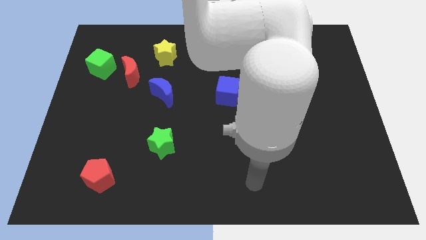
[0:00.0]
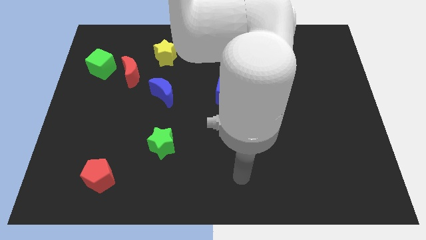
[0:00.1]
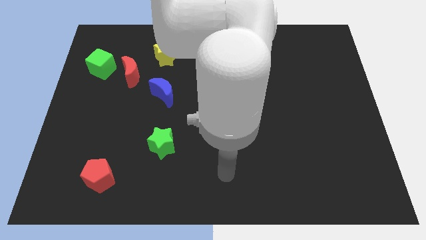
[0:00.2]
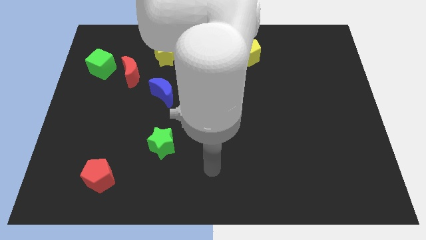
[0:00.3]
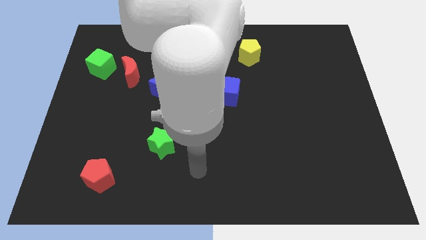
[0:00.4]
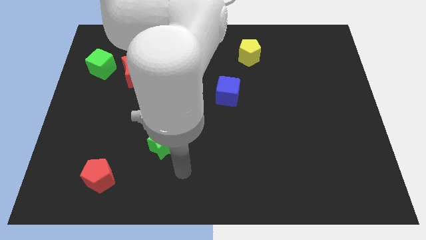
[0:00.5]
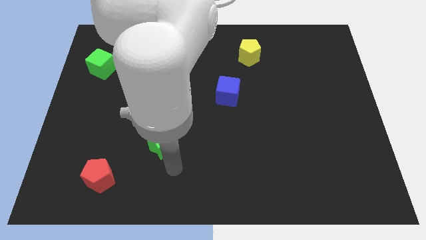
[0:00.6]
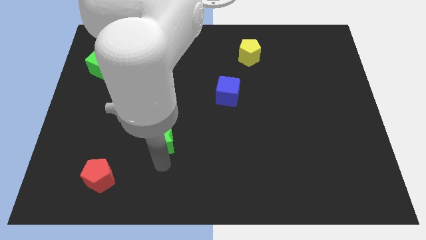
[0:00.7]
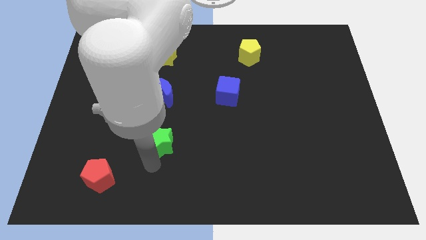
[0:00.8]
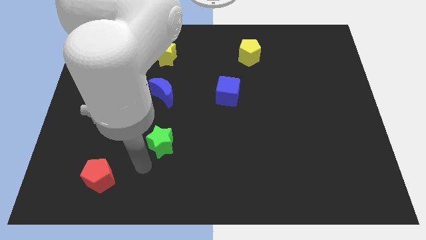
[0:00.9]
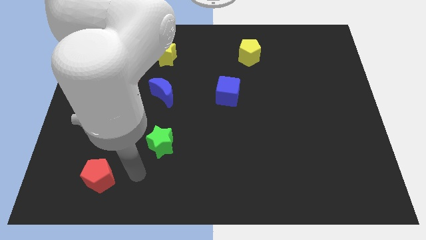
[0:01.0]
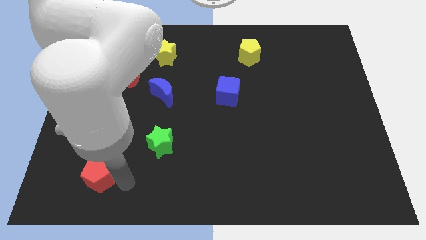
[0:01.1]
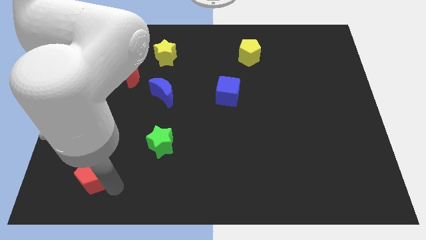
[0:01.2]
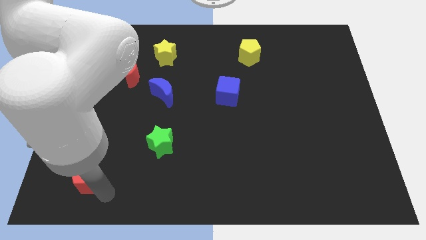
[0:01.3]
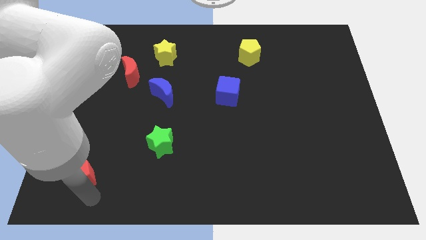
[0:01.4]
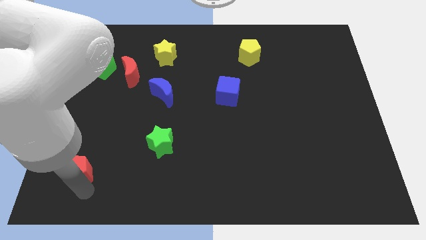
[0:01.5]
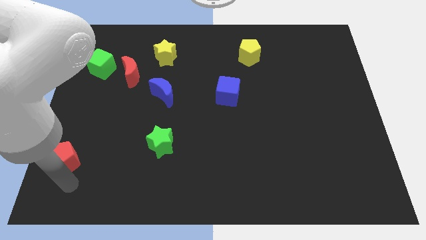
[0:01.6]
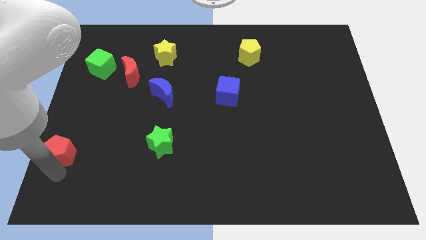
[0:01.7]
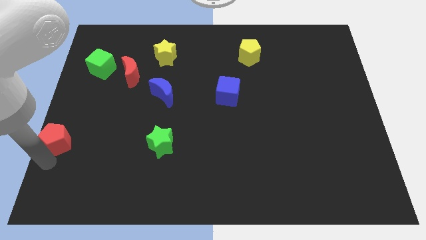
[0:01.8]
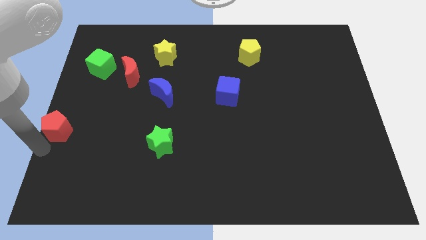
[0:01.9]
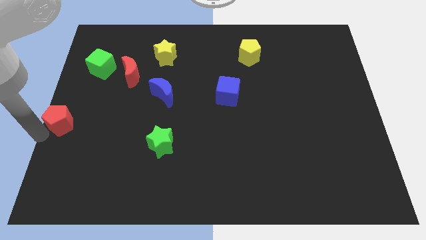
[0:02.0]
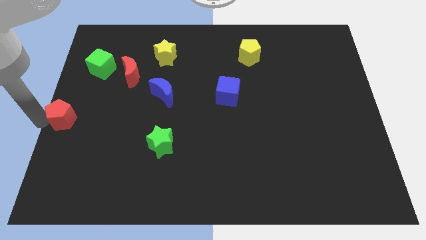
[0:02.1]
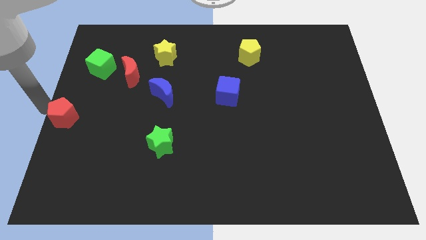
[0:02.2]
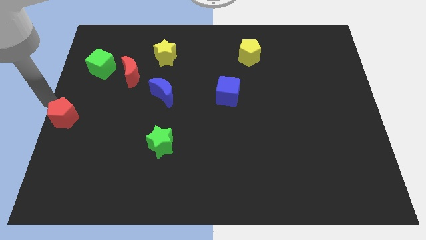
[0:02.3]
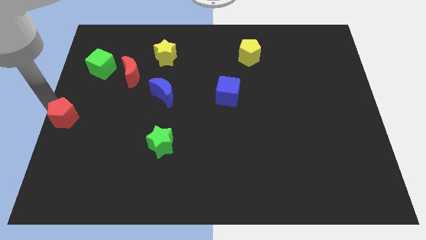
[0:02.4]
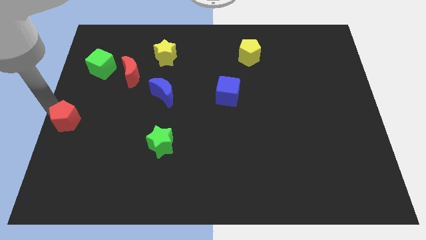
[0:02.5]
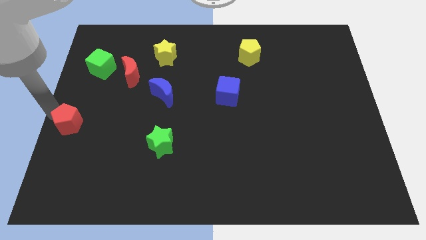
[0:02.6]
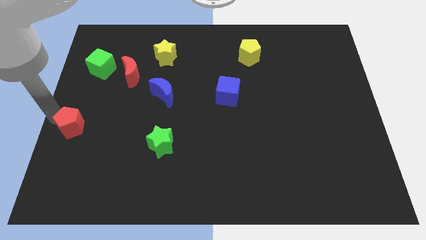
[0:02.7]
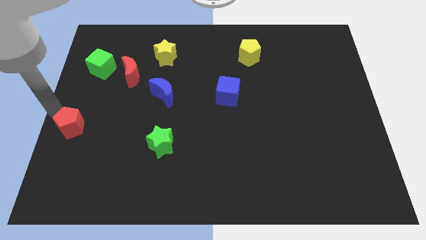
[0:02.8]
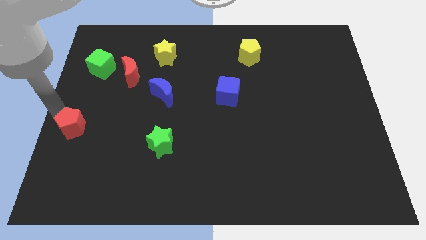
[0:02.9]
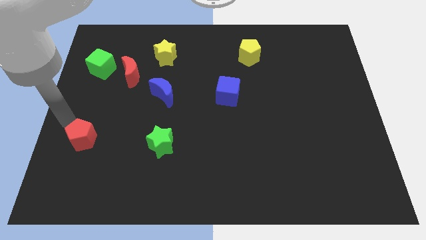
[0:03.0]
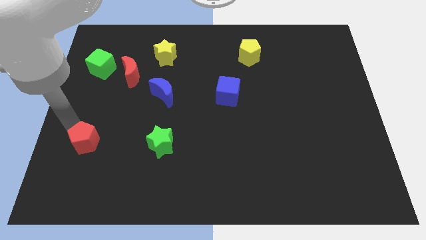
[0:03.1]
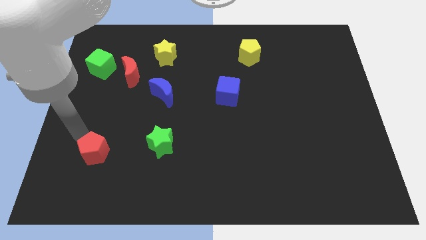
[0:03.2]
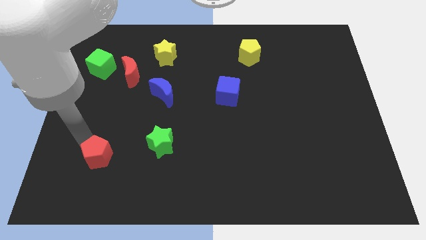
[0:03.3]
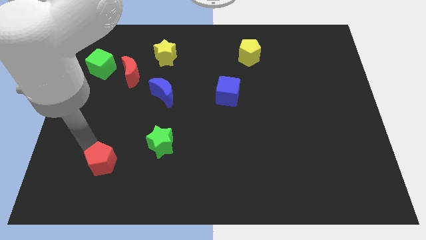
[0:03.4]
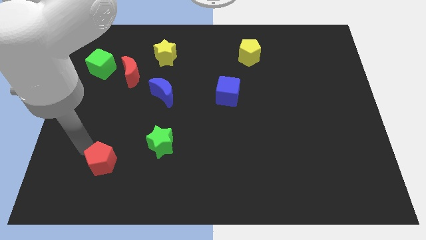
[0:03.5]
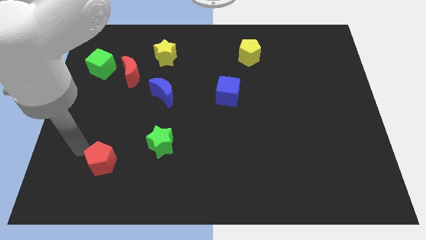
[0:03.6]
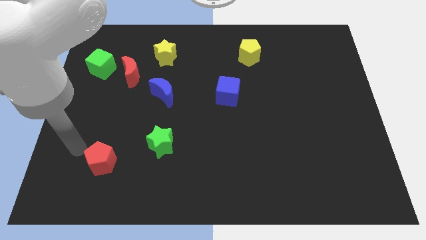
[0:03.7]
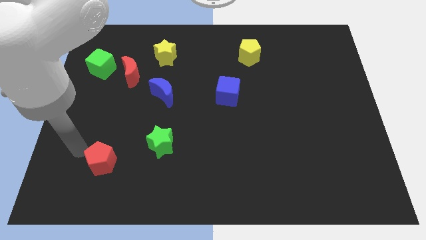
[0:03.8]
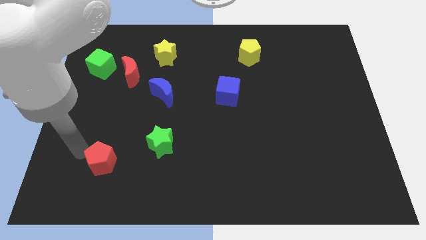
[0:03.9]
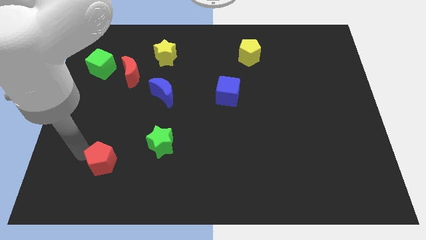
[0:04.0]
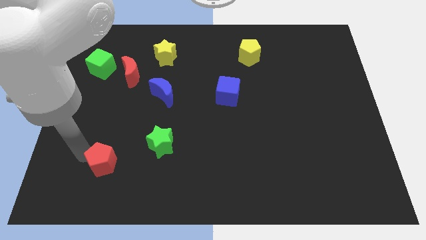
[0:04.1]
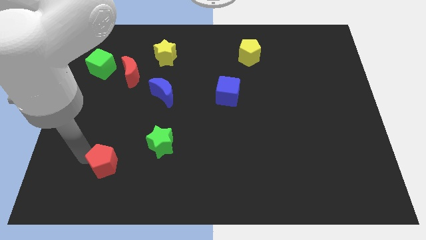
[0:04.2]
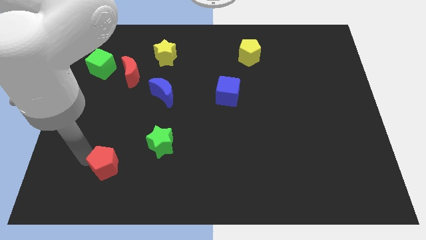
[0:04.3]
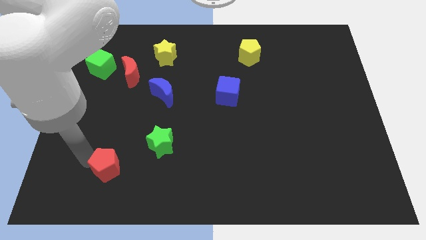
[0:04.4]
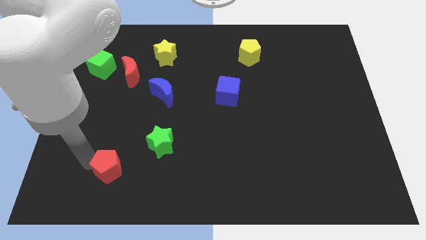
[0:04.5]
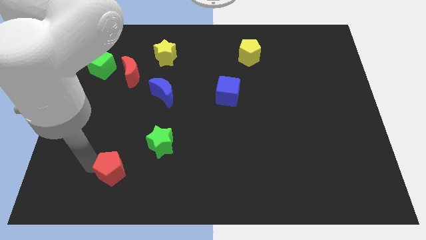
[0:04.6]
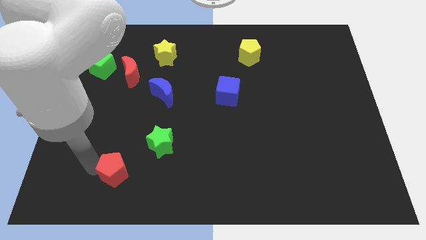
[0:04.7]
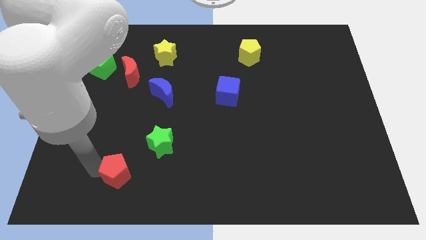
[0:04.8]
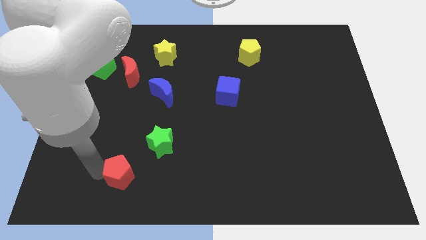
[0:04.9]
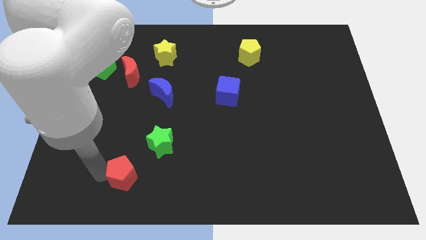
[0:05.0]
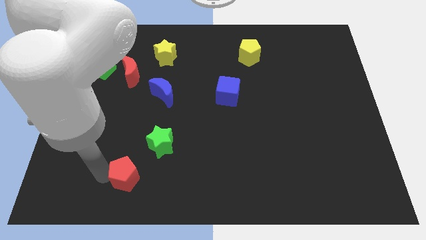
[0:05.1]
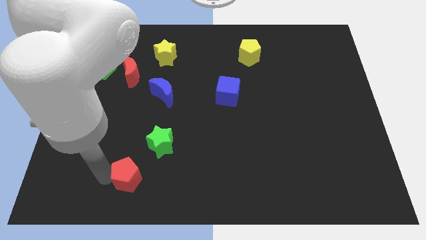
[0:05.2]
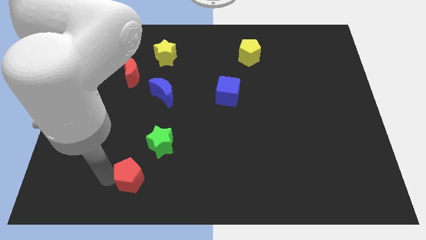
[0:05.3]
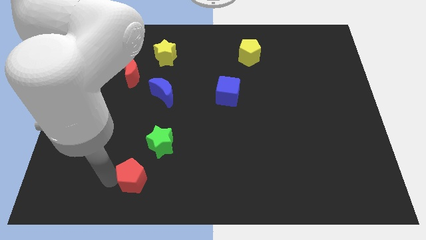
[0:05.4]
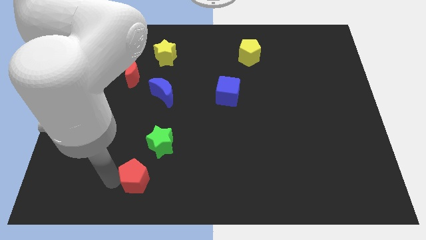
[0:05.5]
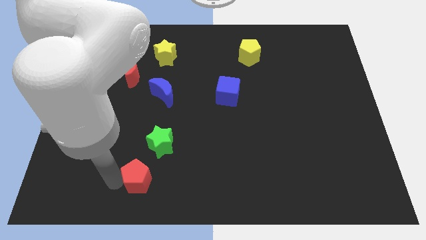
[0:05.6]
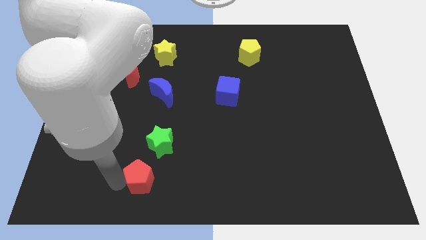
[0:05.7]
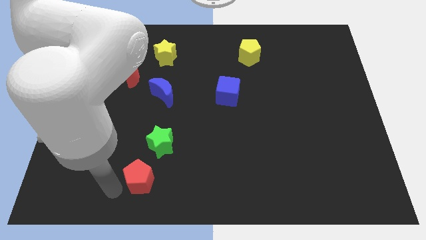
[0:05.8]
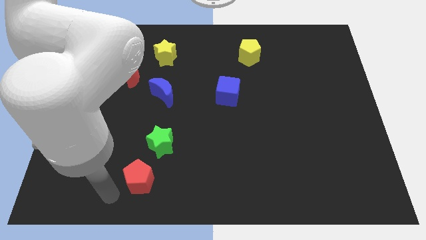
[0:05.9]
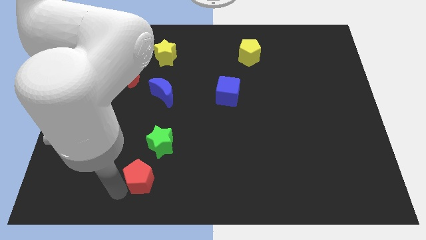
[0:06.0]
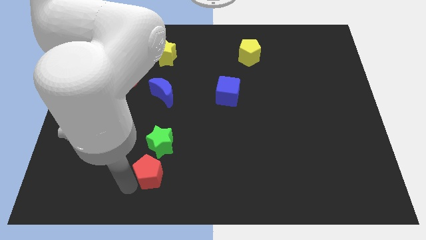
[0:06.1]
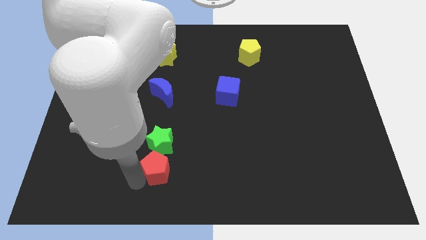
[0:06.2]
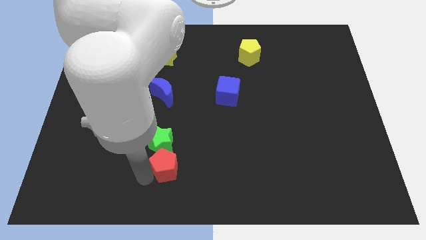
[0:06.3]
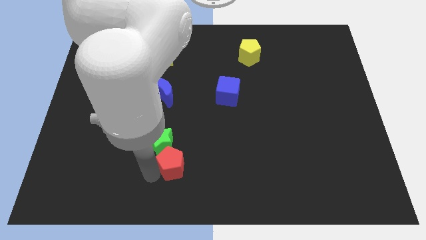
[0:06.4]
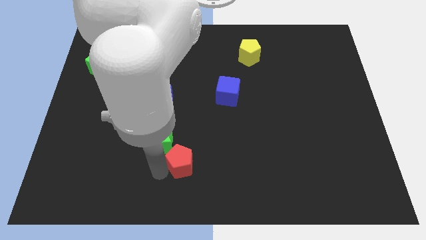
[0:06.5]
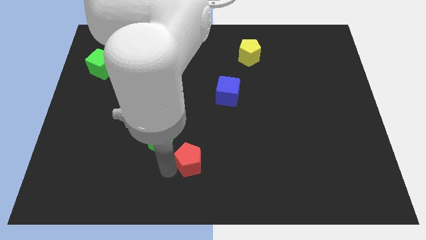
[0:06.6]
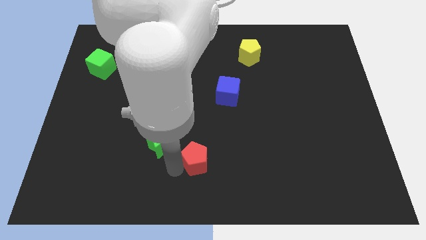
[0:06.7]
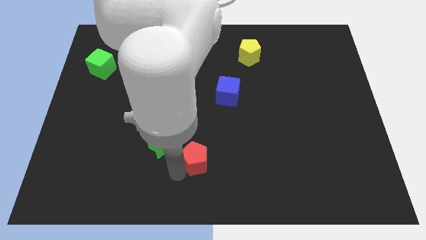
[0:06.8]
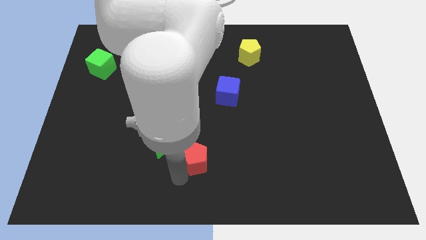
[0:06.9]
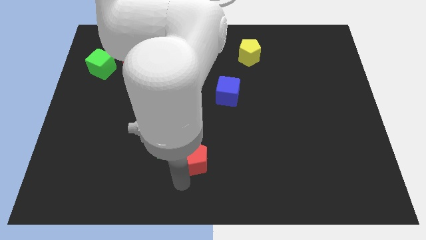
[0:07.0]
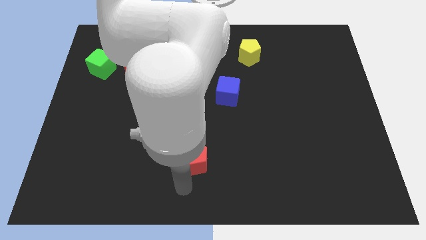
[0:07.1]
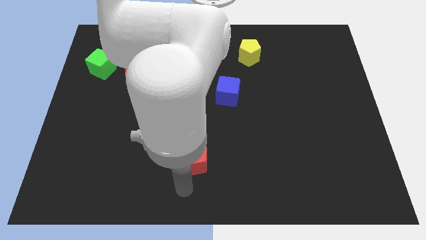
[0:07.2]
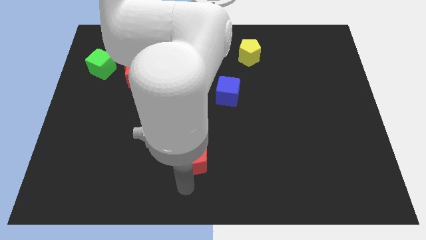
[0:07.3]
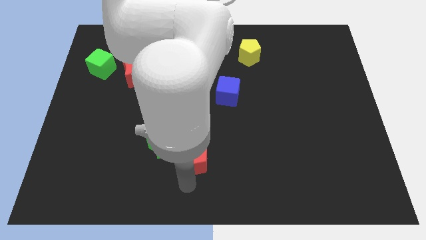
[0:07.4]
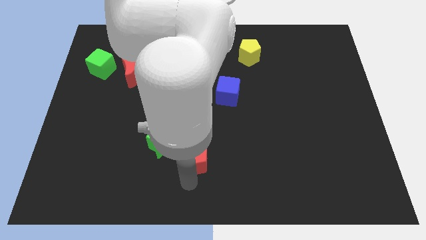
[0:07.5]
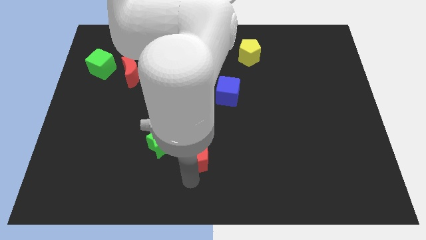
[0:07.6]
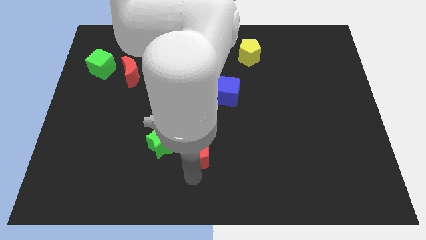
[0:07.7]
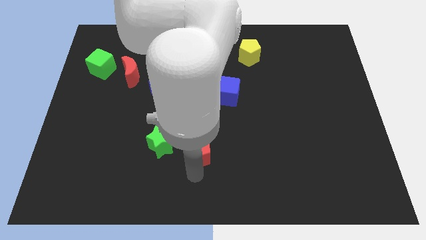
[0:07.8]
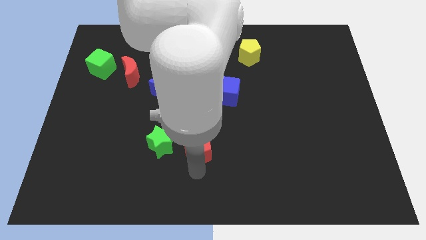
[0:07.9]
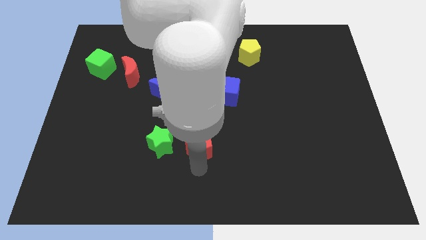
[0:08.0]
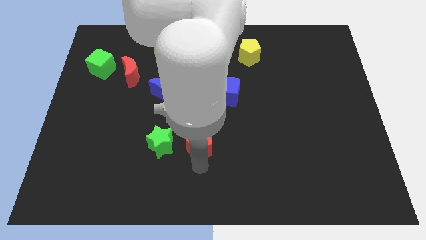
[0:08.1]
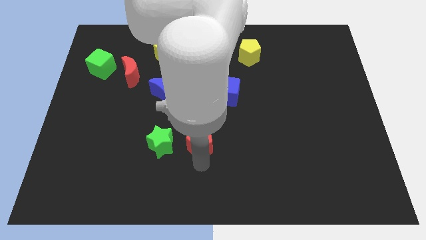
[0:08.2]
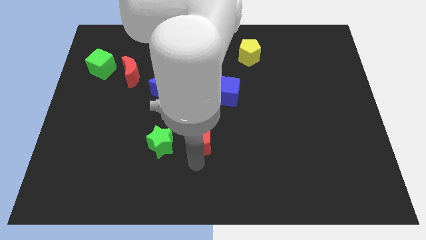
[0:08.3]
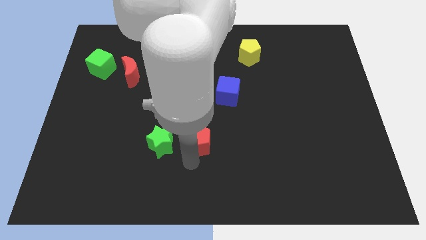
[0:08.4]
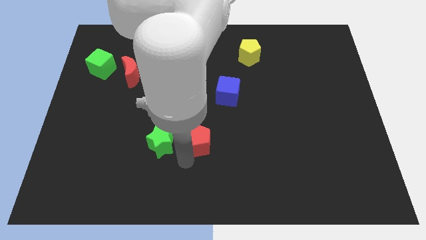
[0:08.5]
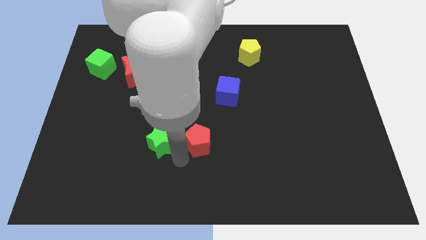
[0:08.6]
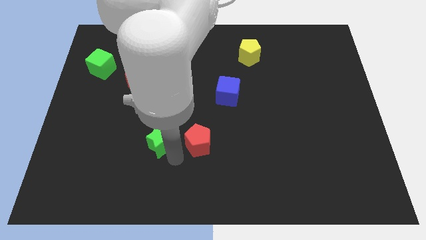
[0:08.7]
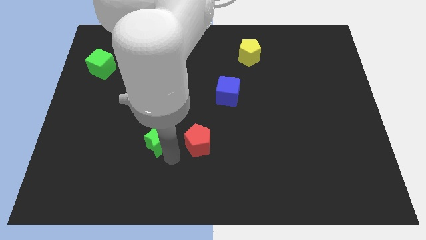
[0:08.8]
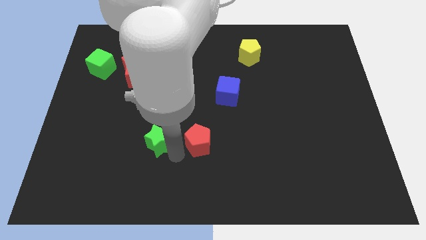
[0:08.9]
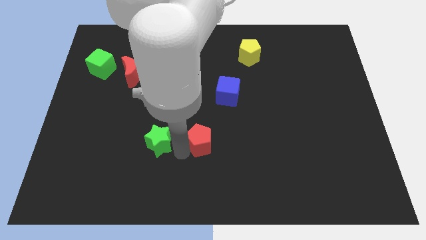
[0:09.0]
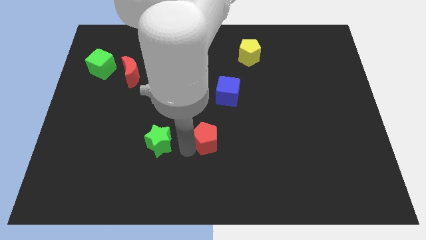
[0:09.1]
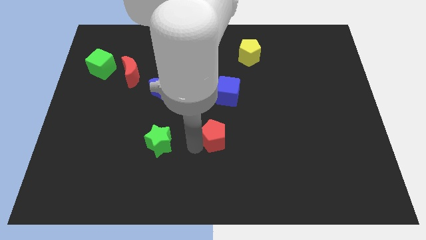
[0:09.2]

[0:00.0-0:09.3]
push the red pentagon below the blue cube
